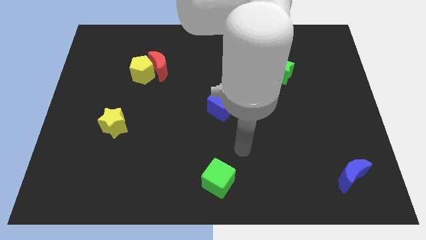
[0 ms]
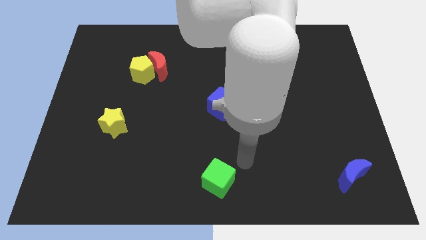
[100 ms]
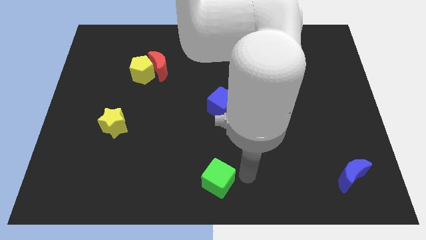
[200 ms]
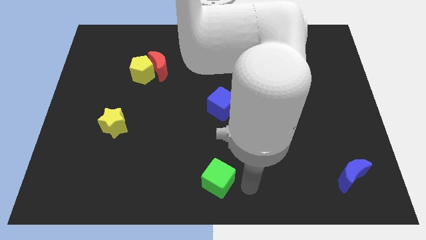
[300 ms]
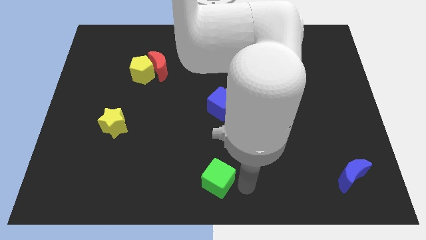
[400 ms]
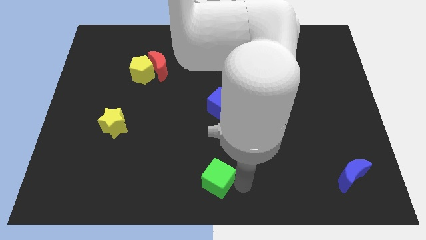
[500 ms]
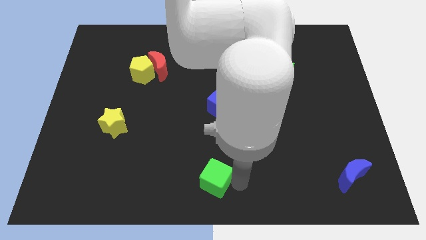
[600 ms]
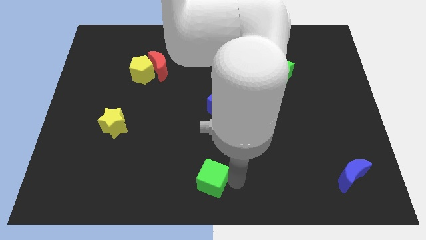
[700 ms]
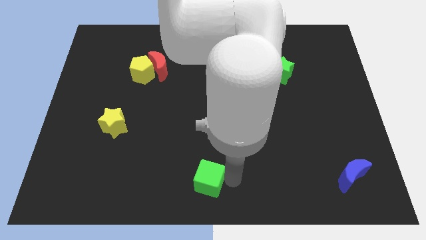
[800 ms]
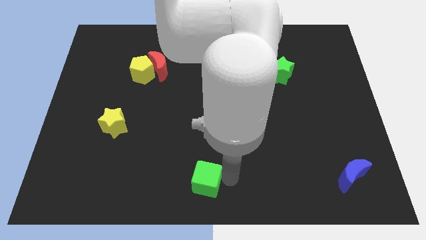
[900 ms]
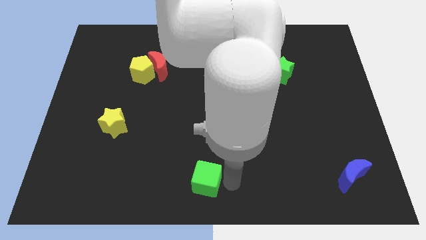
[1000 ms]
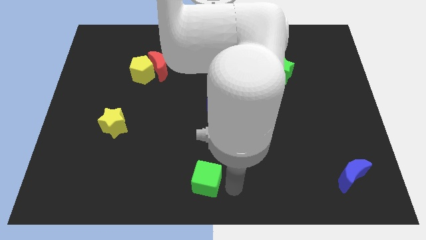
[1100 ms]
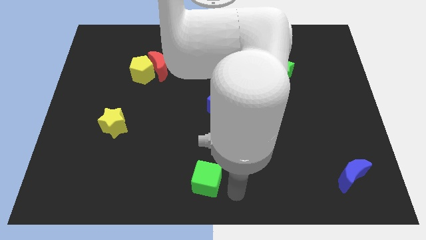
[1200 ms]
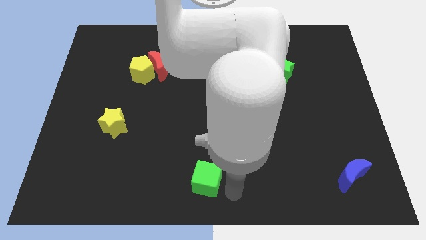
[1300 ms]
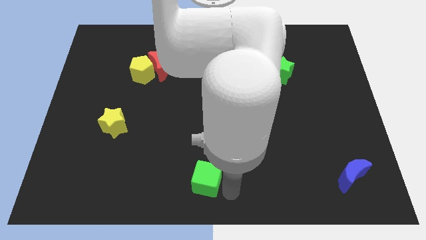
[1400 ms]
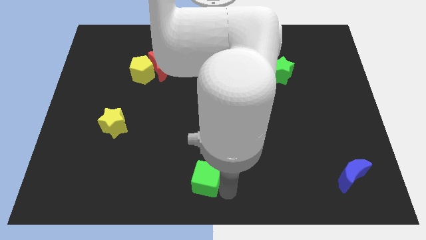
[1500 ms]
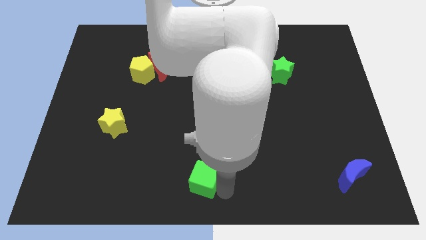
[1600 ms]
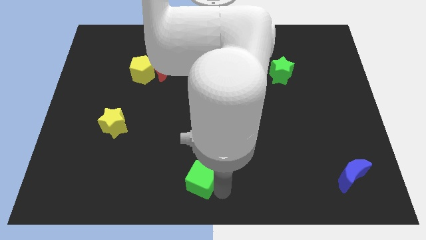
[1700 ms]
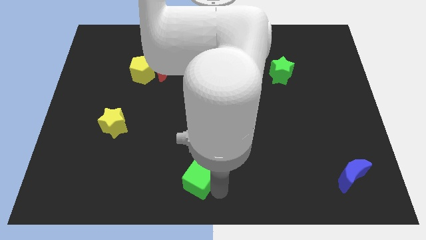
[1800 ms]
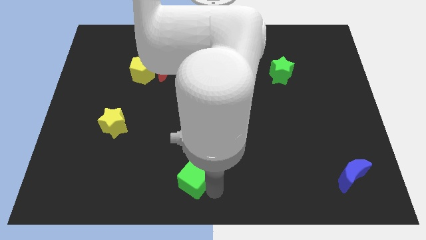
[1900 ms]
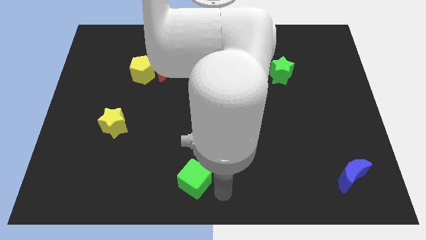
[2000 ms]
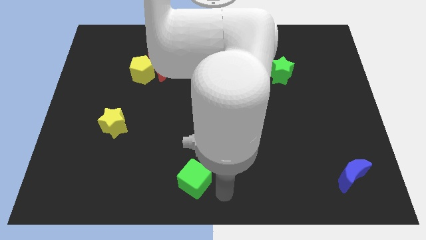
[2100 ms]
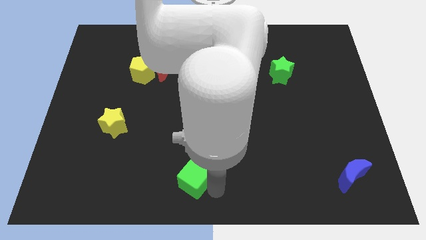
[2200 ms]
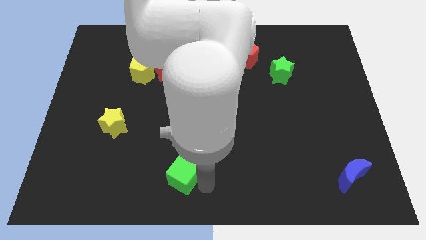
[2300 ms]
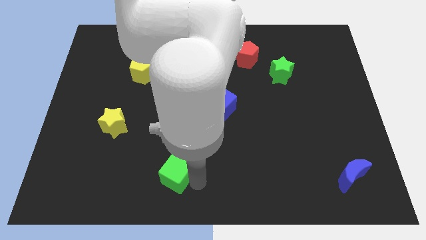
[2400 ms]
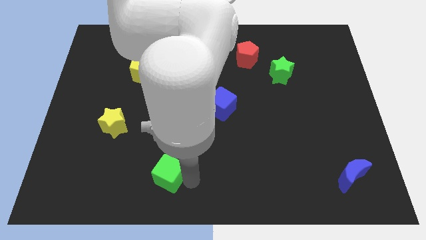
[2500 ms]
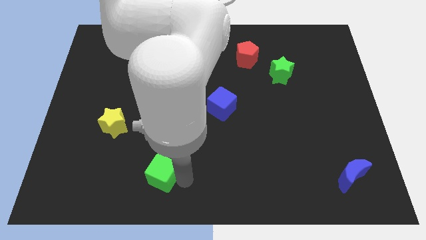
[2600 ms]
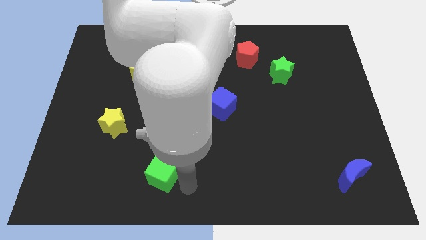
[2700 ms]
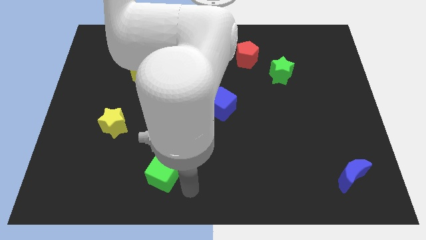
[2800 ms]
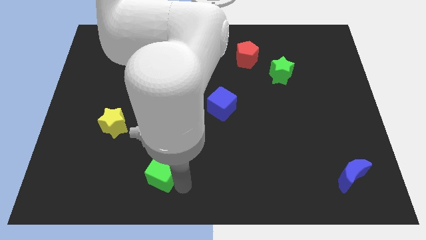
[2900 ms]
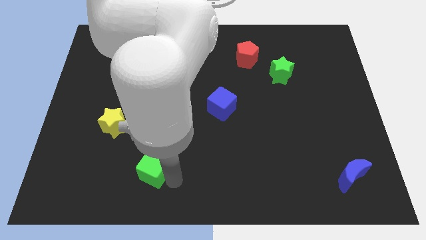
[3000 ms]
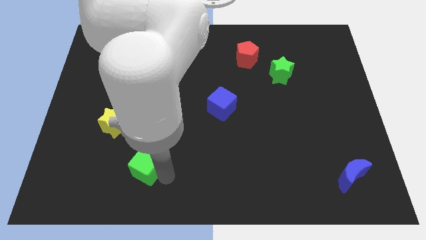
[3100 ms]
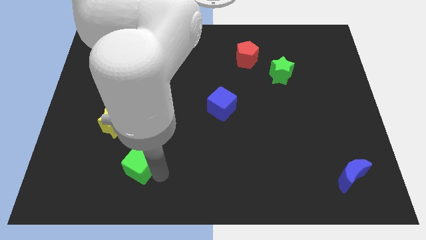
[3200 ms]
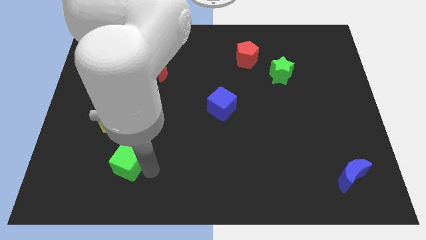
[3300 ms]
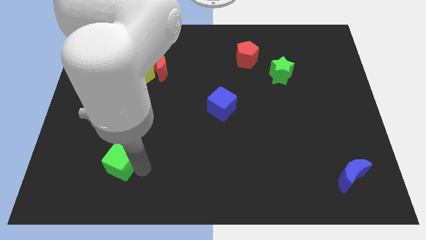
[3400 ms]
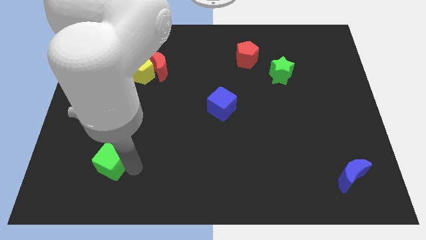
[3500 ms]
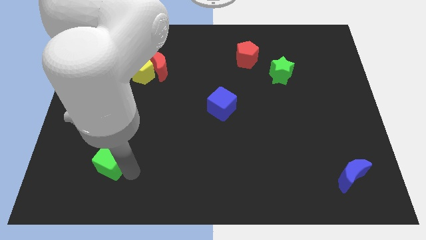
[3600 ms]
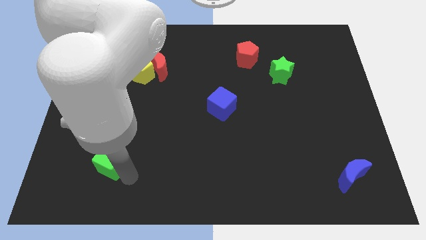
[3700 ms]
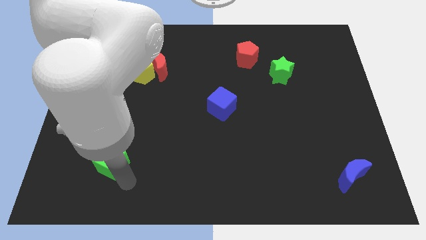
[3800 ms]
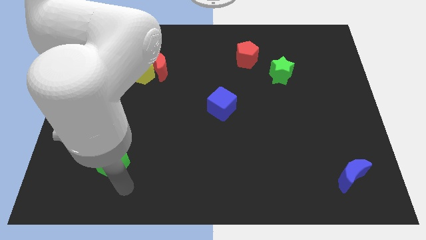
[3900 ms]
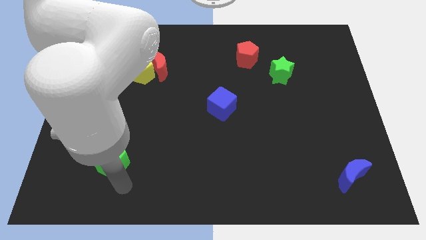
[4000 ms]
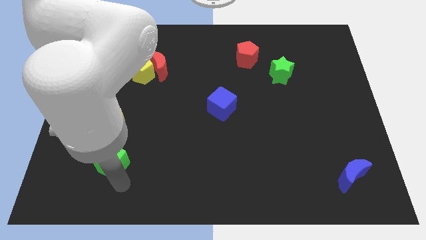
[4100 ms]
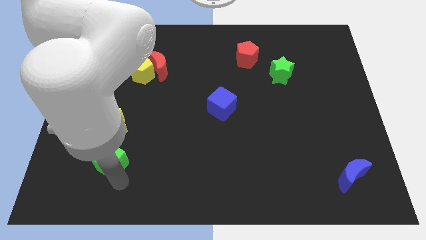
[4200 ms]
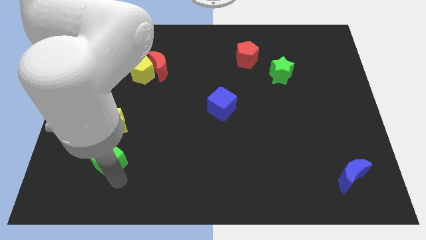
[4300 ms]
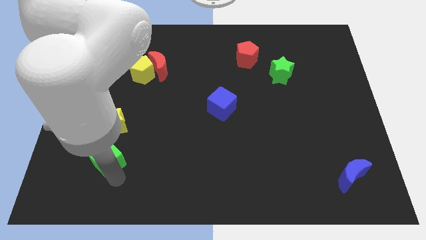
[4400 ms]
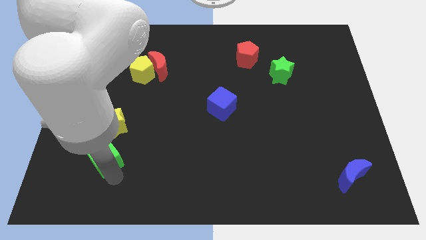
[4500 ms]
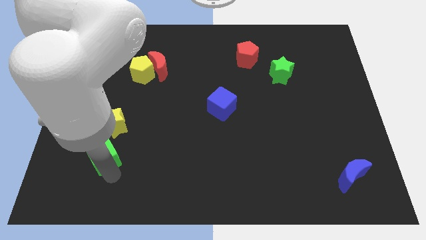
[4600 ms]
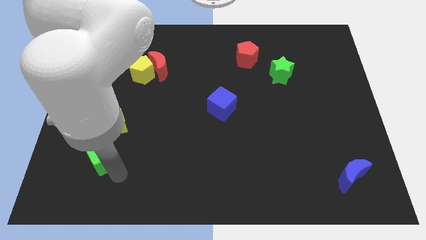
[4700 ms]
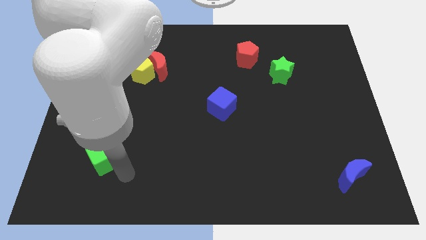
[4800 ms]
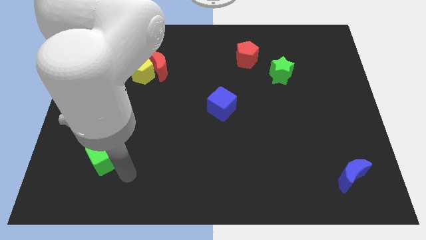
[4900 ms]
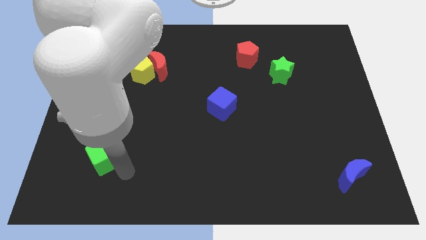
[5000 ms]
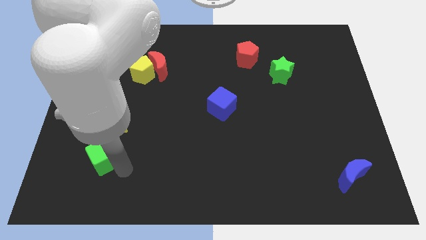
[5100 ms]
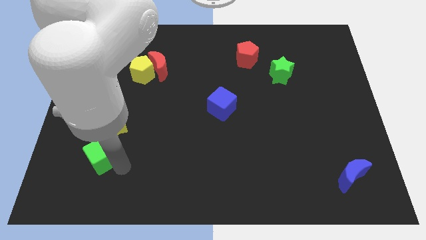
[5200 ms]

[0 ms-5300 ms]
push the green cube diagonally down and to the left of the yellow star

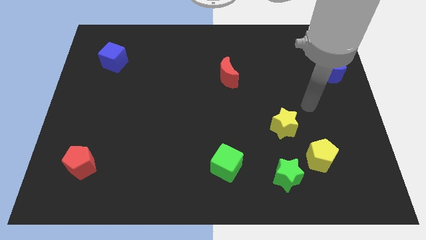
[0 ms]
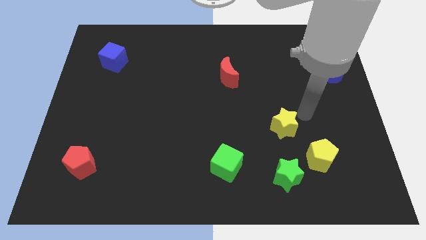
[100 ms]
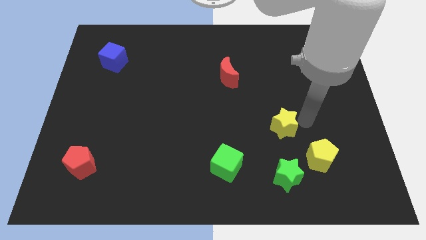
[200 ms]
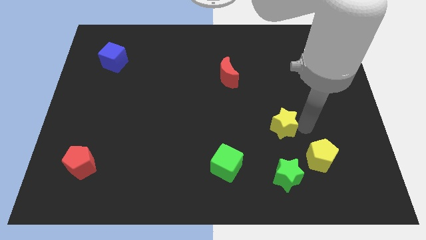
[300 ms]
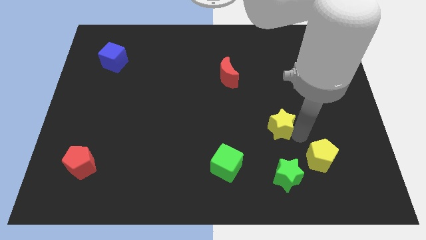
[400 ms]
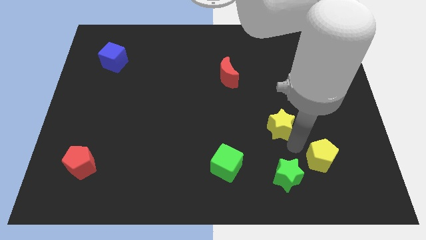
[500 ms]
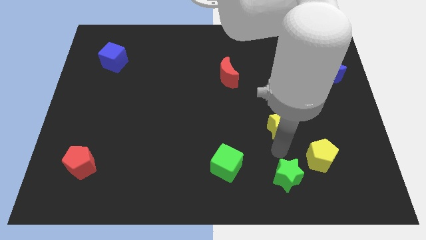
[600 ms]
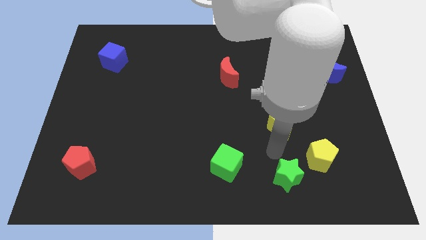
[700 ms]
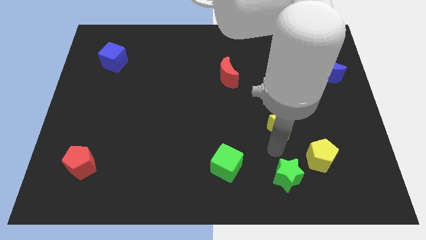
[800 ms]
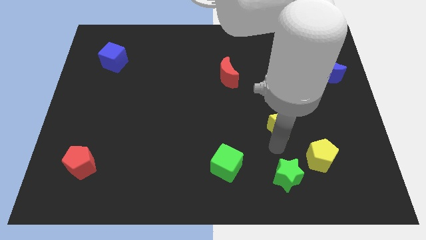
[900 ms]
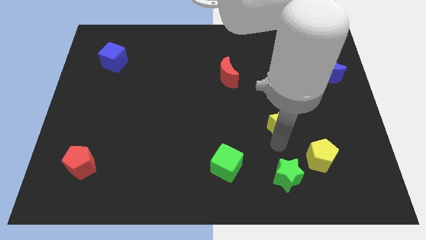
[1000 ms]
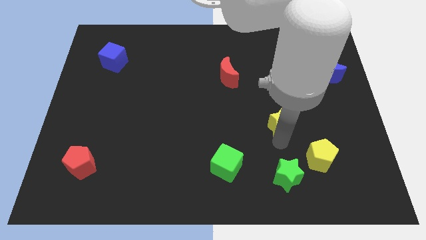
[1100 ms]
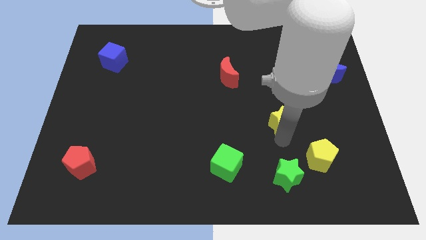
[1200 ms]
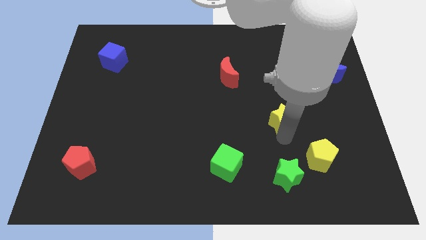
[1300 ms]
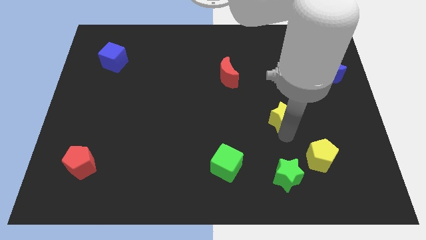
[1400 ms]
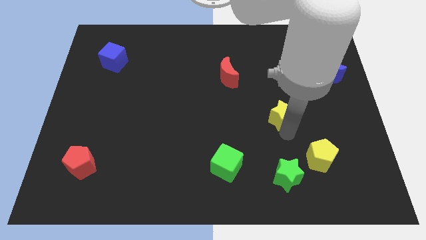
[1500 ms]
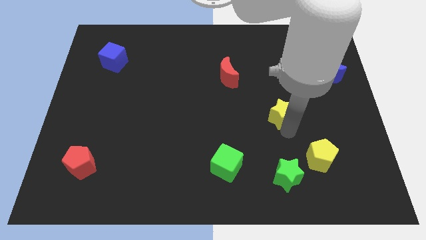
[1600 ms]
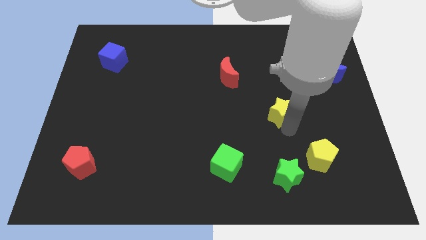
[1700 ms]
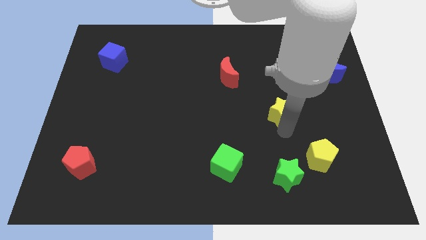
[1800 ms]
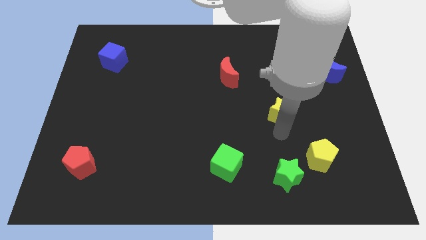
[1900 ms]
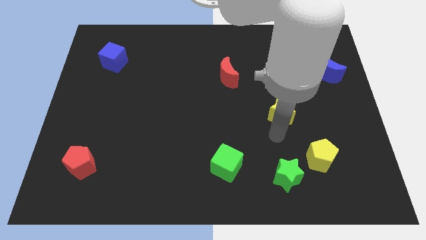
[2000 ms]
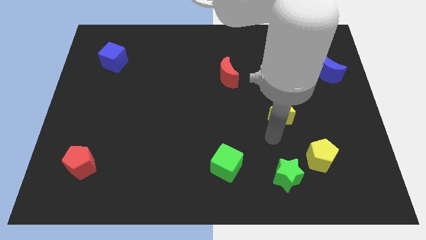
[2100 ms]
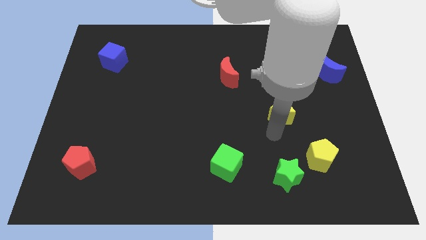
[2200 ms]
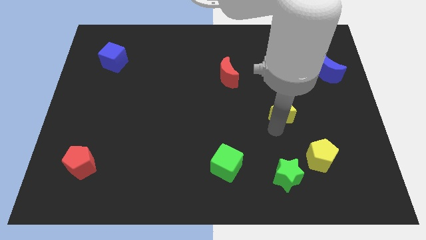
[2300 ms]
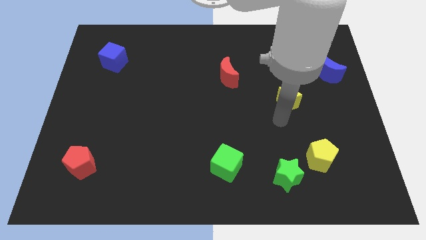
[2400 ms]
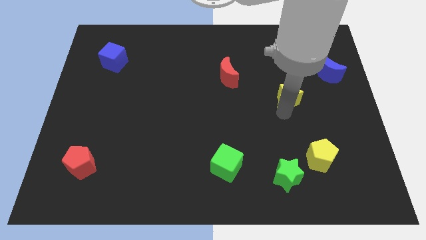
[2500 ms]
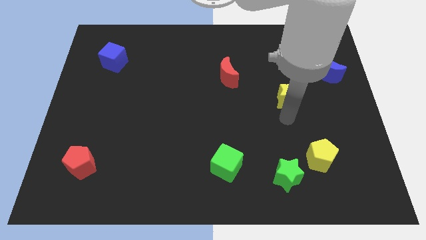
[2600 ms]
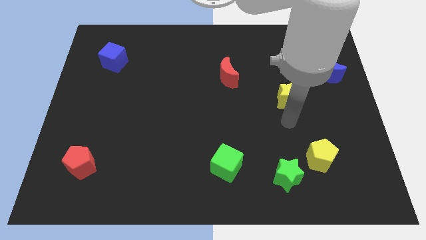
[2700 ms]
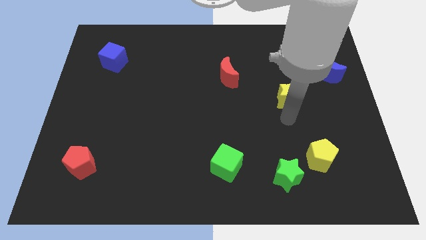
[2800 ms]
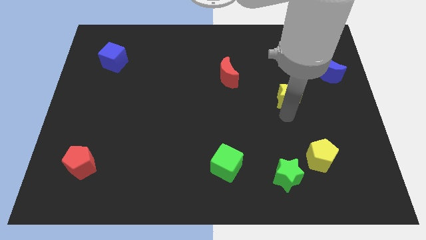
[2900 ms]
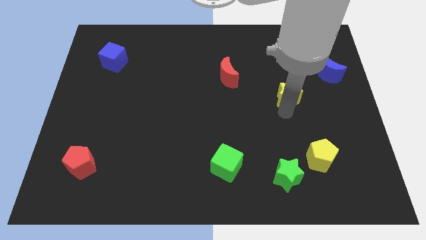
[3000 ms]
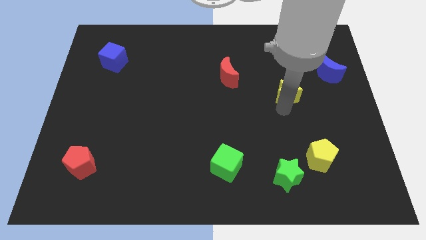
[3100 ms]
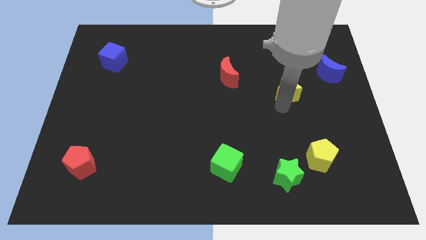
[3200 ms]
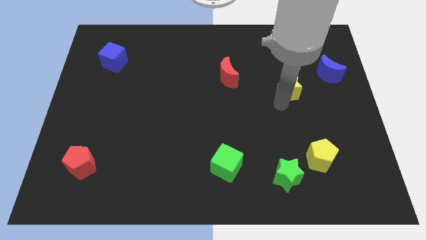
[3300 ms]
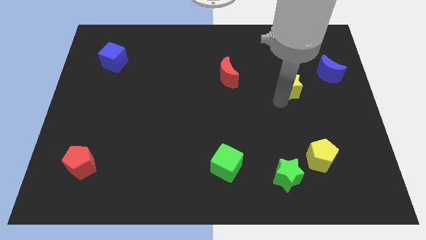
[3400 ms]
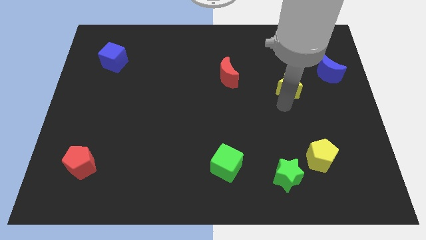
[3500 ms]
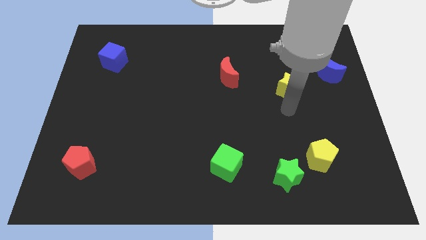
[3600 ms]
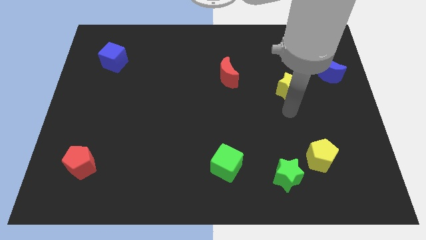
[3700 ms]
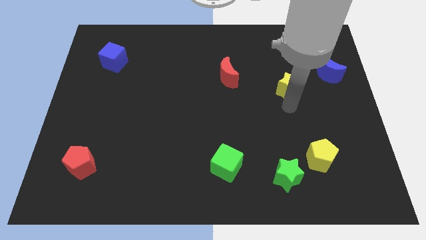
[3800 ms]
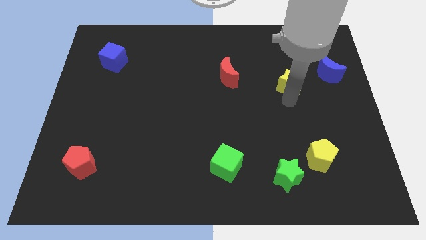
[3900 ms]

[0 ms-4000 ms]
slide the yellow star to the left of the blue moon
